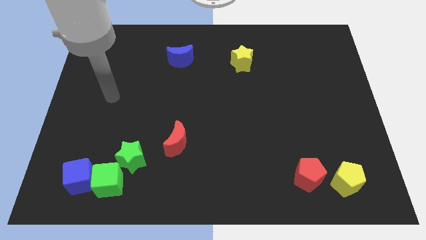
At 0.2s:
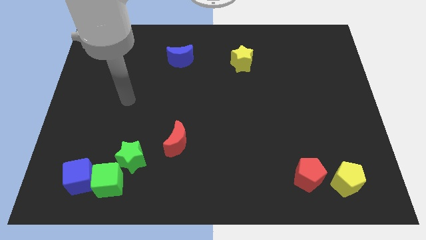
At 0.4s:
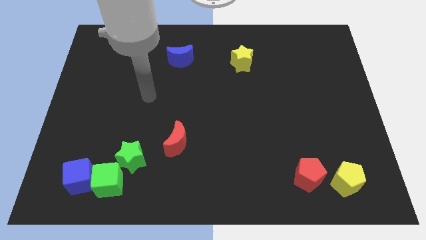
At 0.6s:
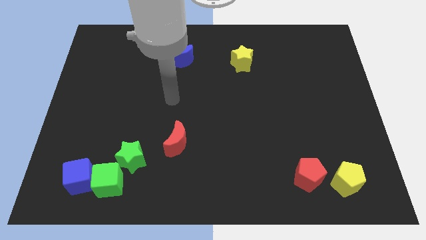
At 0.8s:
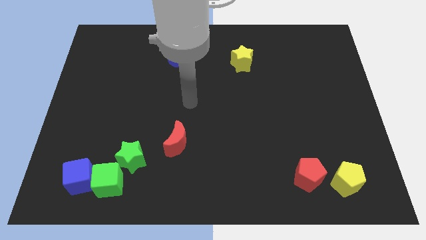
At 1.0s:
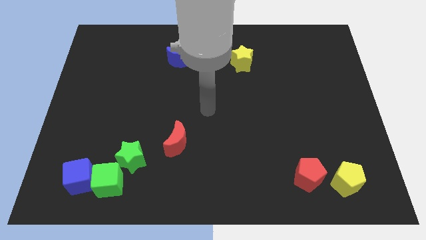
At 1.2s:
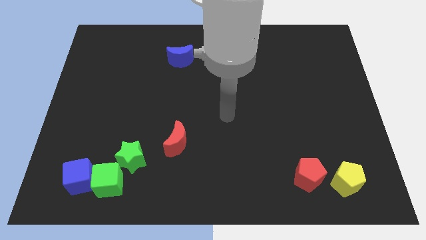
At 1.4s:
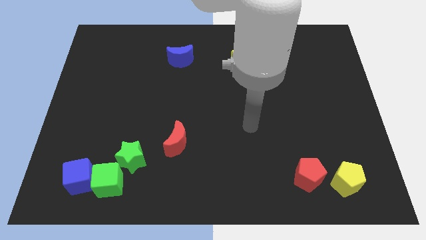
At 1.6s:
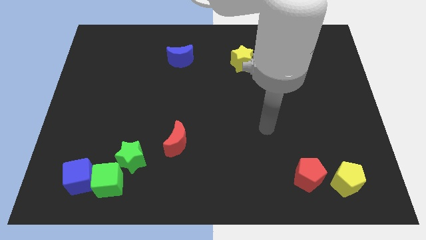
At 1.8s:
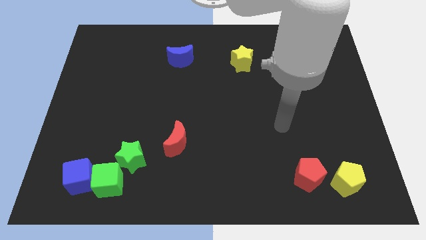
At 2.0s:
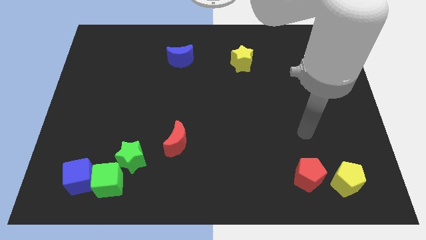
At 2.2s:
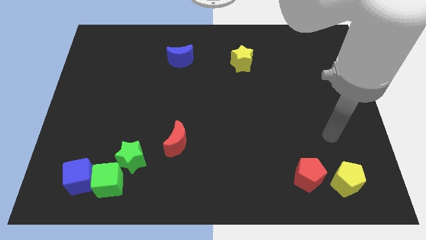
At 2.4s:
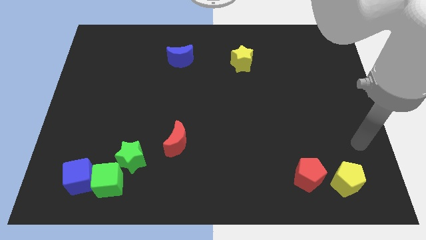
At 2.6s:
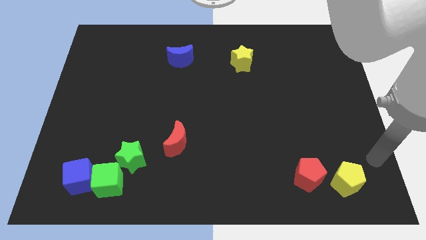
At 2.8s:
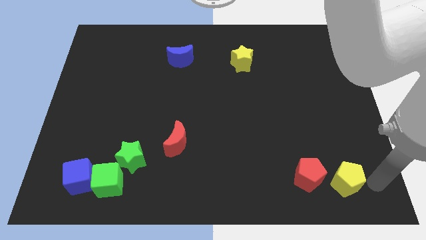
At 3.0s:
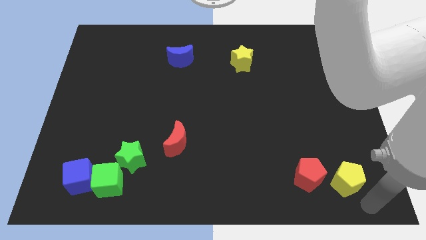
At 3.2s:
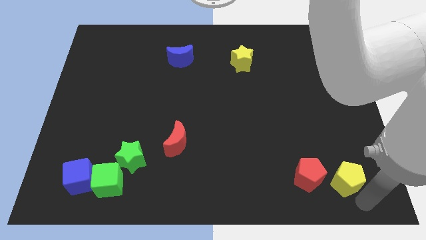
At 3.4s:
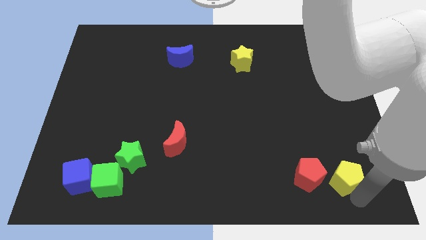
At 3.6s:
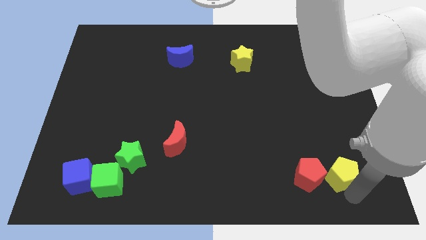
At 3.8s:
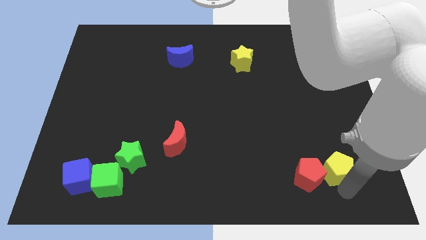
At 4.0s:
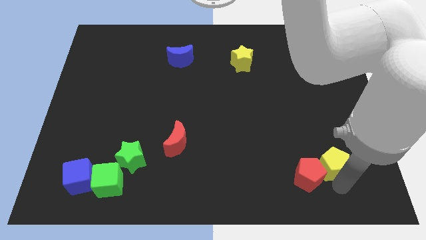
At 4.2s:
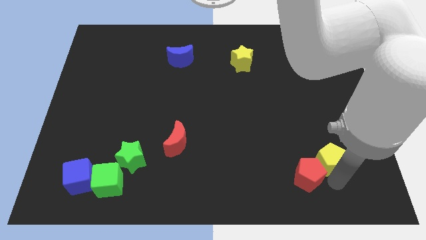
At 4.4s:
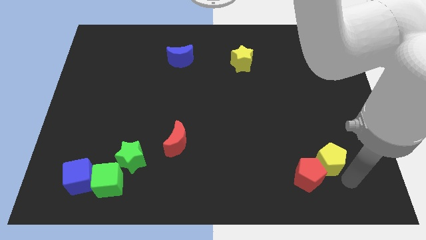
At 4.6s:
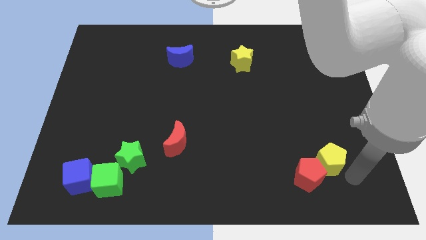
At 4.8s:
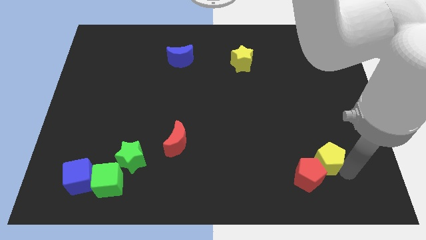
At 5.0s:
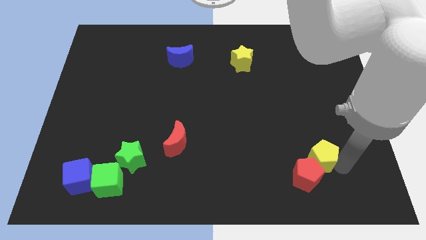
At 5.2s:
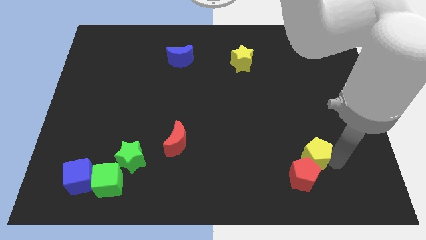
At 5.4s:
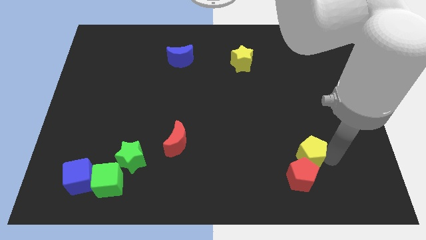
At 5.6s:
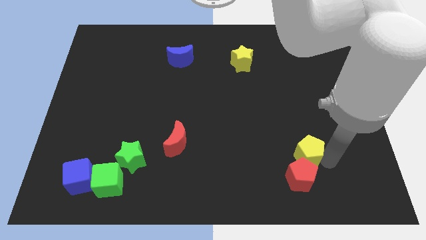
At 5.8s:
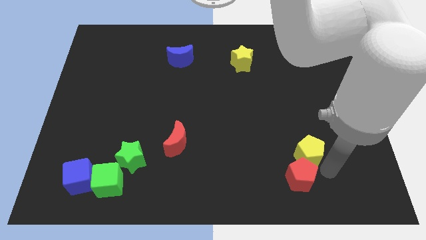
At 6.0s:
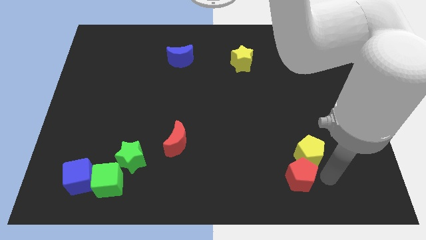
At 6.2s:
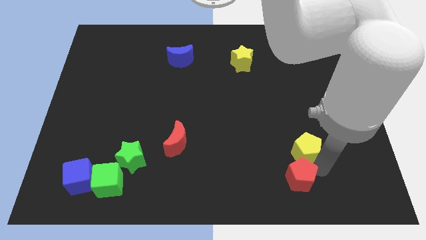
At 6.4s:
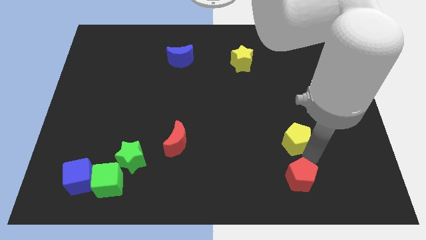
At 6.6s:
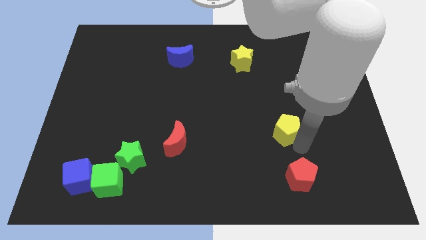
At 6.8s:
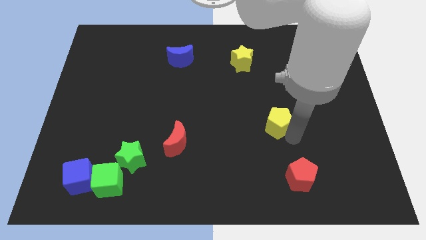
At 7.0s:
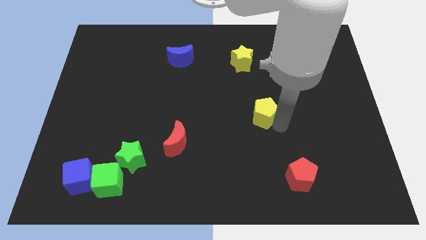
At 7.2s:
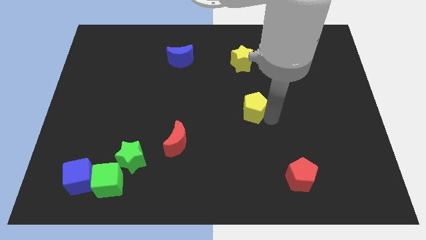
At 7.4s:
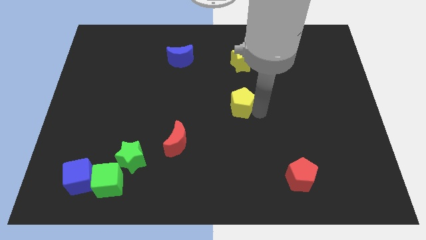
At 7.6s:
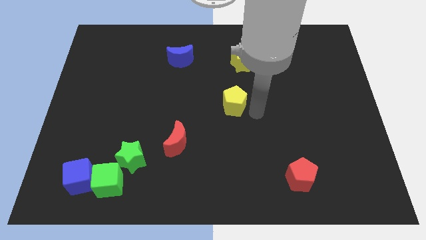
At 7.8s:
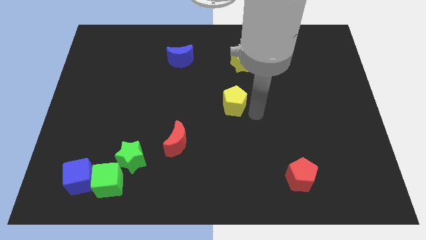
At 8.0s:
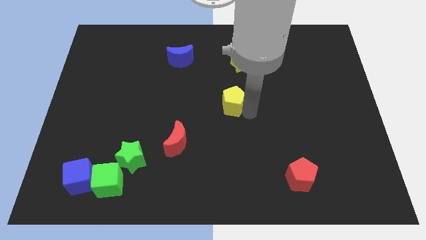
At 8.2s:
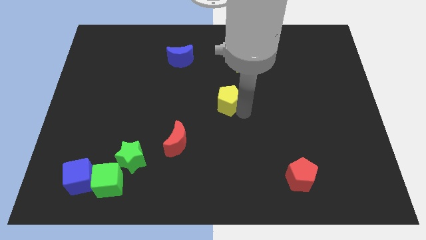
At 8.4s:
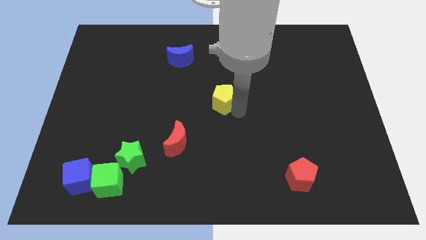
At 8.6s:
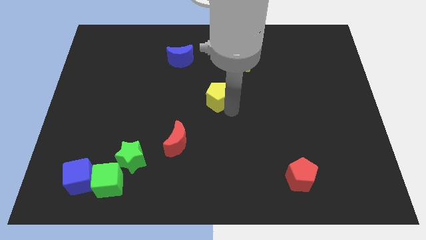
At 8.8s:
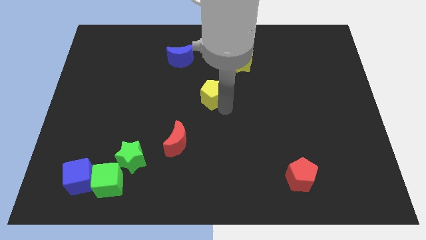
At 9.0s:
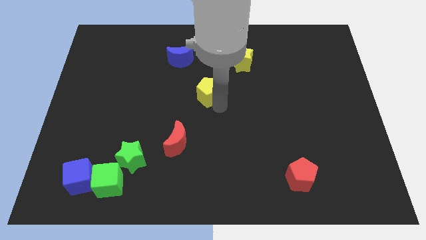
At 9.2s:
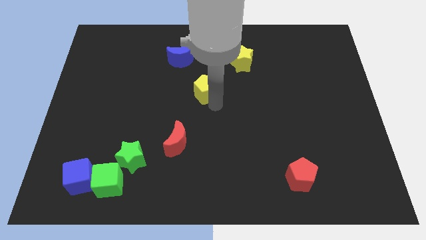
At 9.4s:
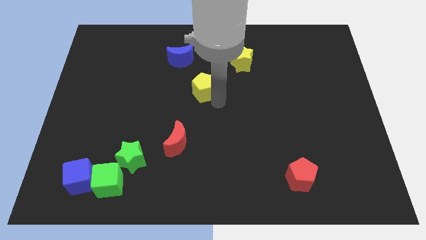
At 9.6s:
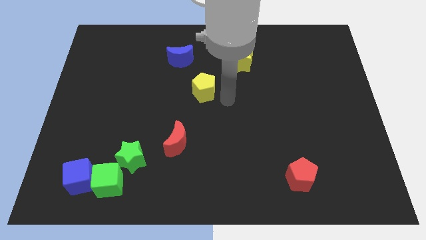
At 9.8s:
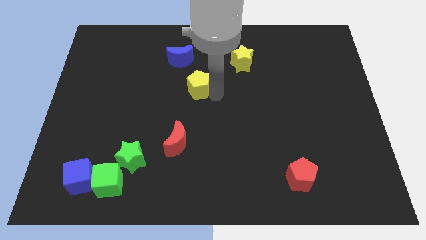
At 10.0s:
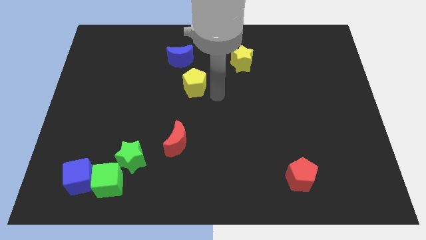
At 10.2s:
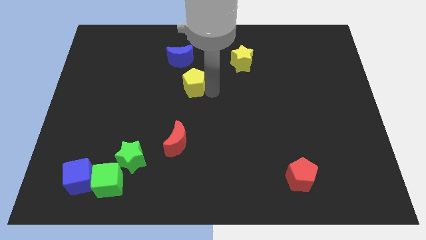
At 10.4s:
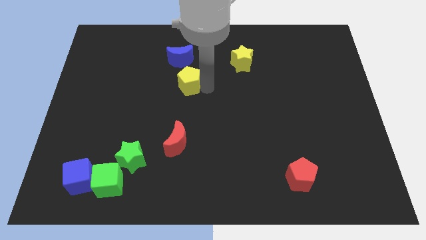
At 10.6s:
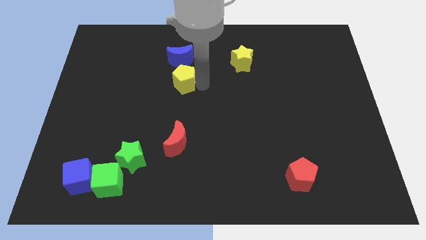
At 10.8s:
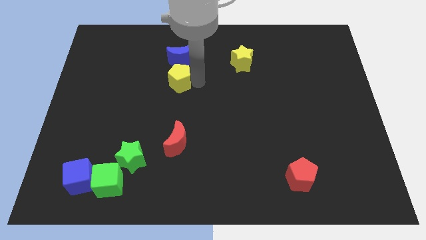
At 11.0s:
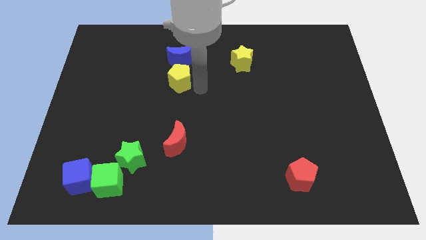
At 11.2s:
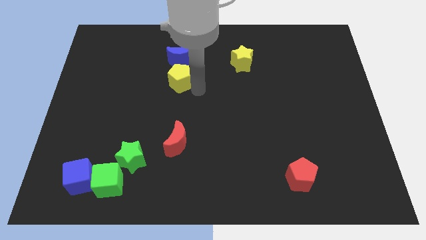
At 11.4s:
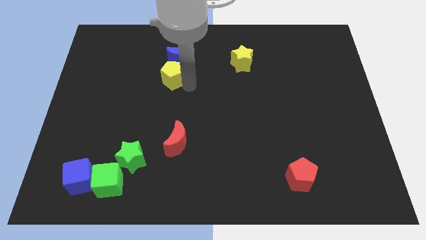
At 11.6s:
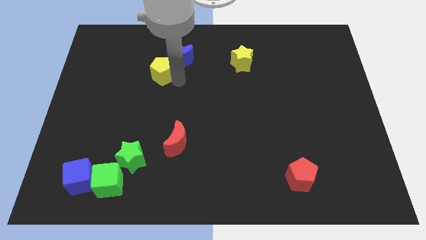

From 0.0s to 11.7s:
move the yellow pentagon left of the blue moon

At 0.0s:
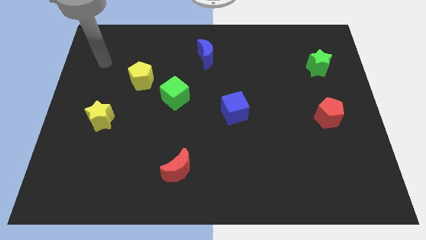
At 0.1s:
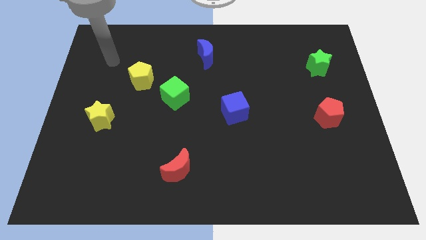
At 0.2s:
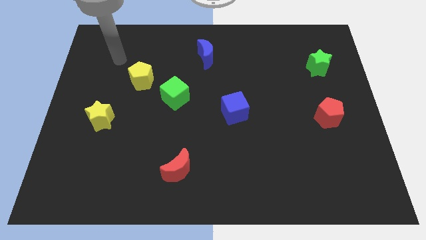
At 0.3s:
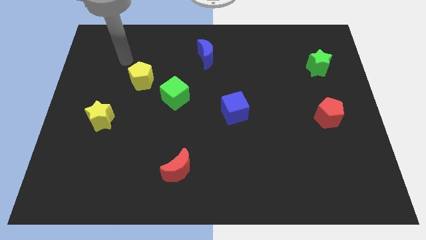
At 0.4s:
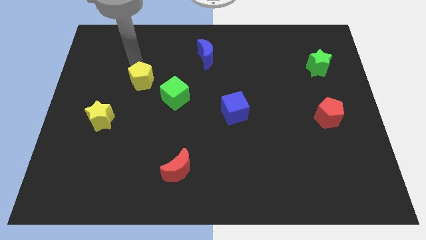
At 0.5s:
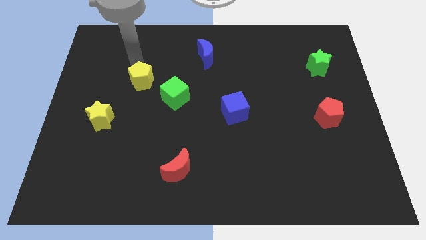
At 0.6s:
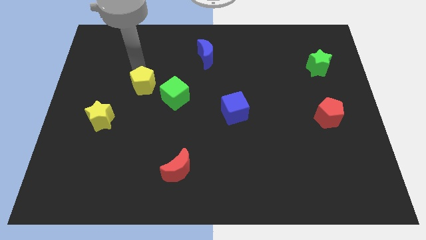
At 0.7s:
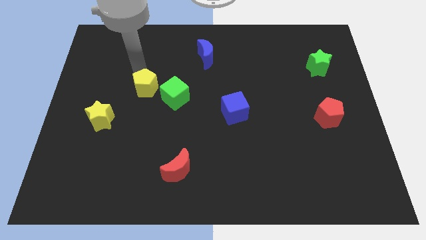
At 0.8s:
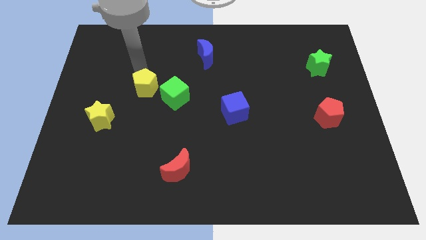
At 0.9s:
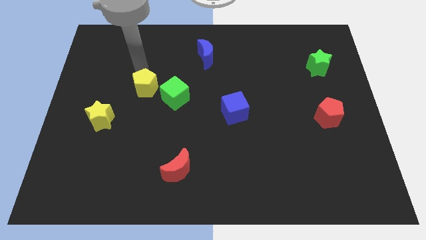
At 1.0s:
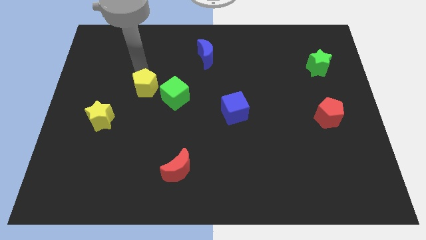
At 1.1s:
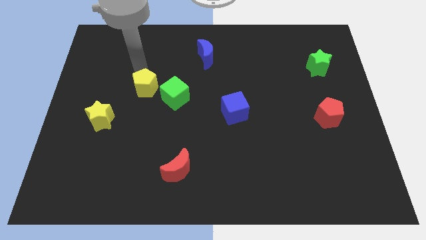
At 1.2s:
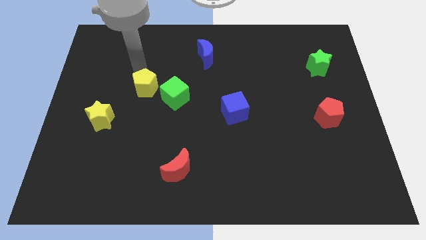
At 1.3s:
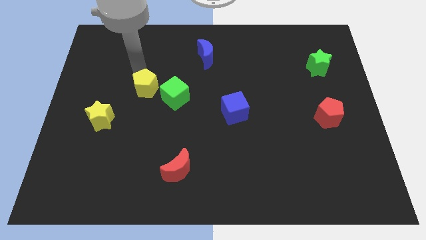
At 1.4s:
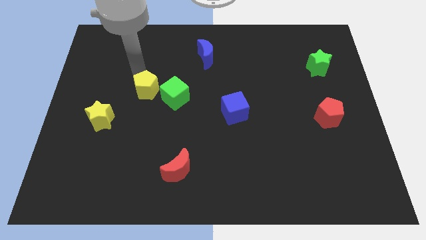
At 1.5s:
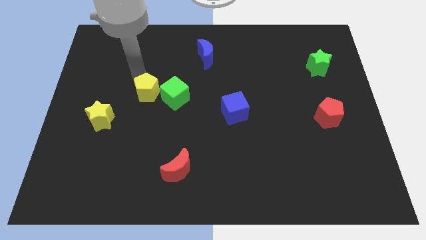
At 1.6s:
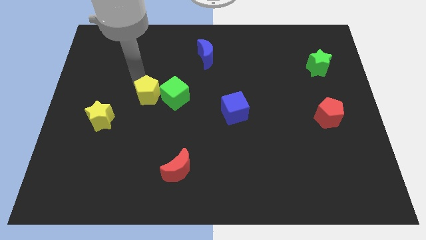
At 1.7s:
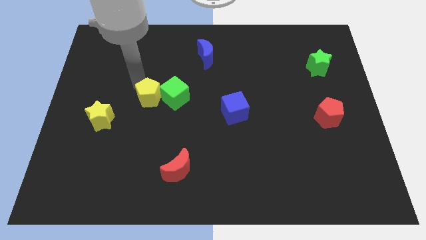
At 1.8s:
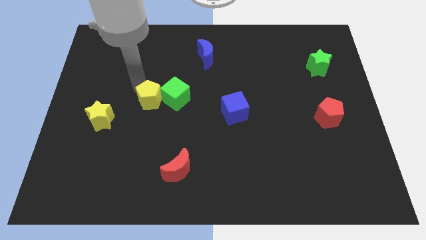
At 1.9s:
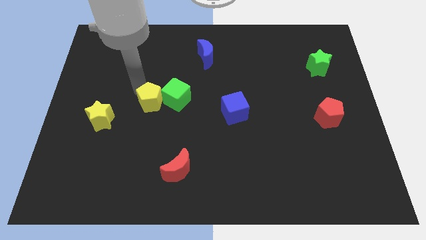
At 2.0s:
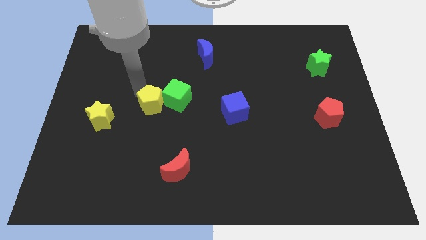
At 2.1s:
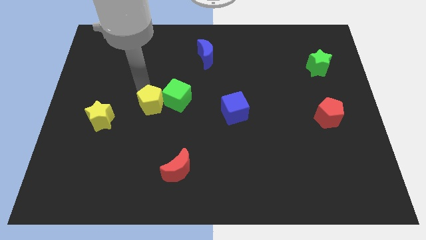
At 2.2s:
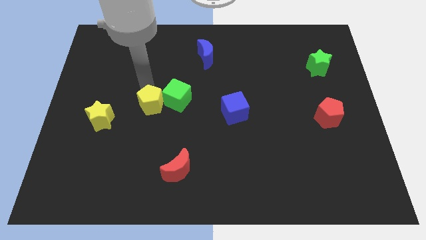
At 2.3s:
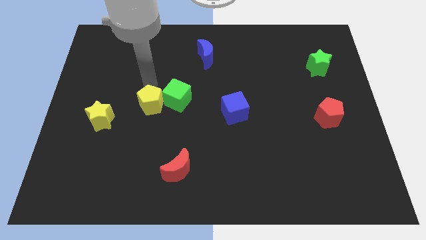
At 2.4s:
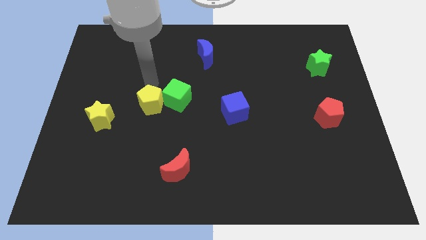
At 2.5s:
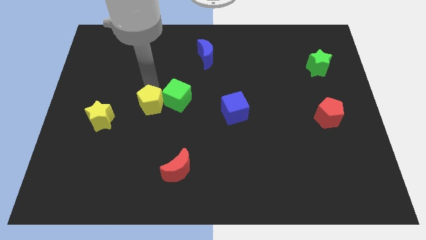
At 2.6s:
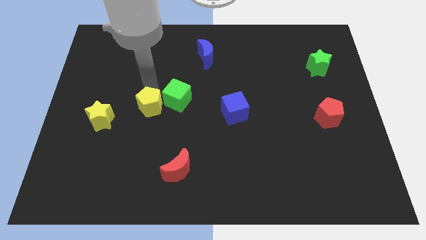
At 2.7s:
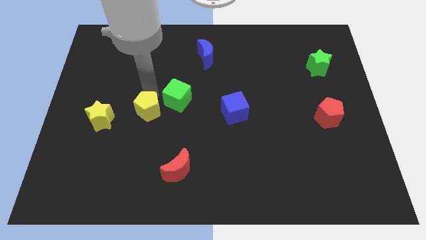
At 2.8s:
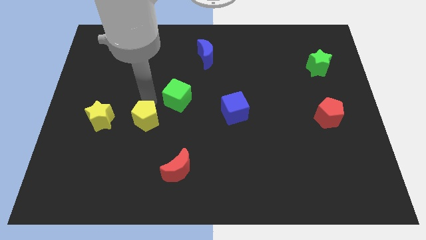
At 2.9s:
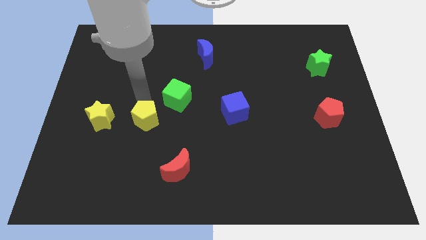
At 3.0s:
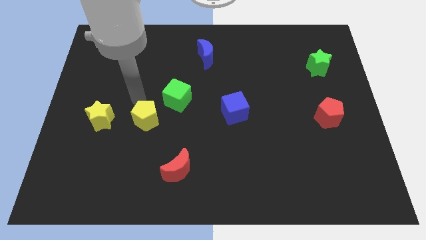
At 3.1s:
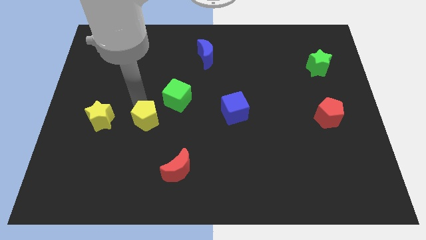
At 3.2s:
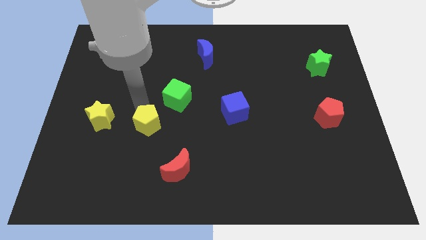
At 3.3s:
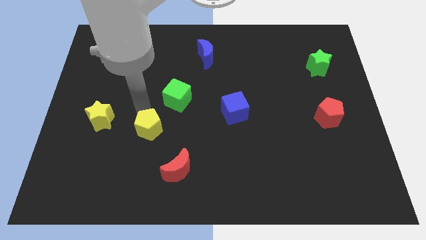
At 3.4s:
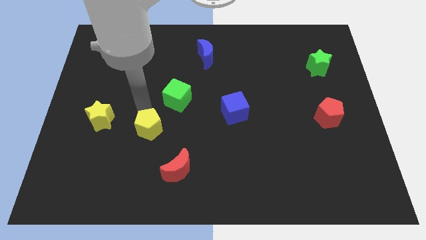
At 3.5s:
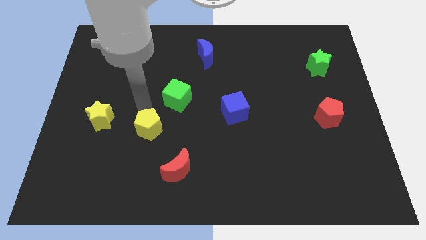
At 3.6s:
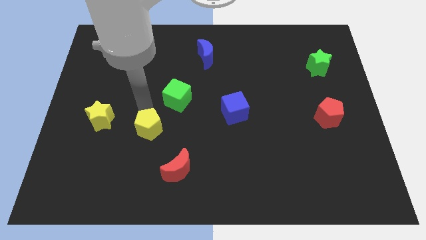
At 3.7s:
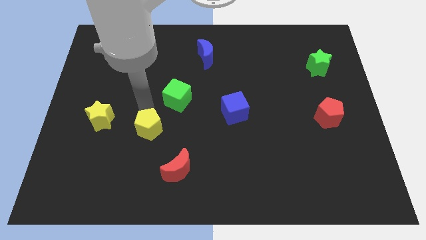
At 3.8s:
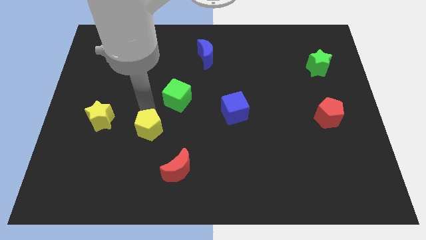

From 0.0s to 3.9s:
put the yellow pentagon to the top left of the red moon
